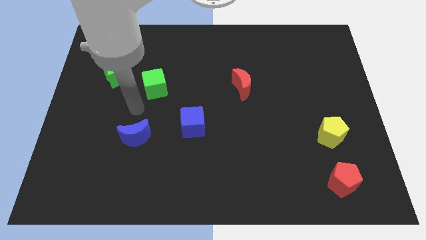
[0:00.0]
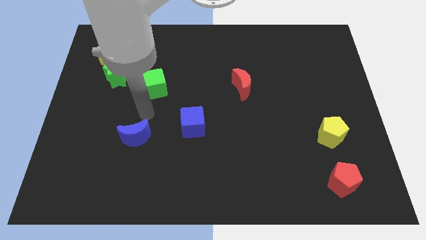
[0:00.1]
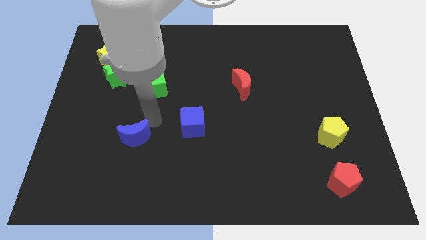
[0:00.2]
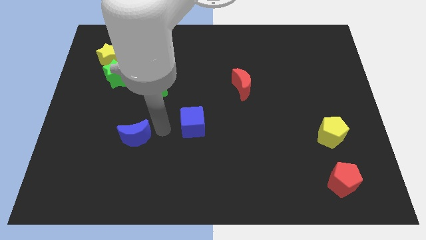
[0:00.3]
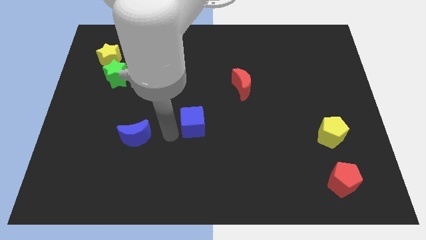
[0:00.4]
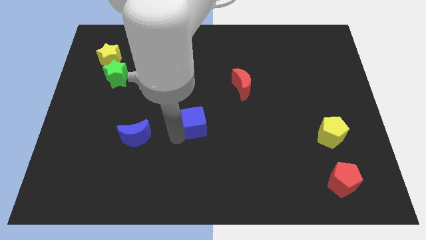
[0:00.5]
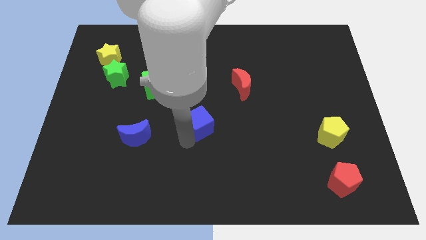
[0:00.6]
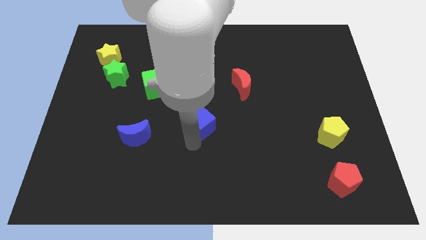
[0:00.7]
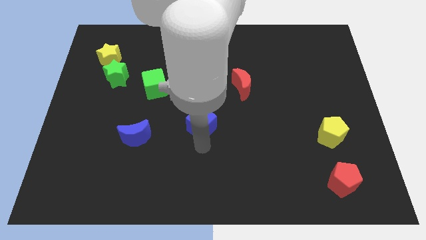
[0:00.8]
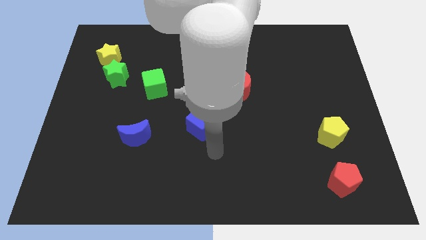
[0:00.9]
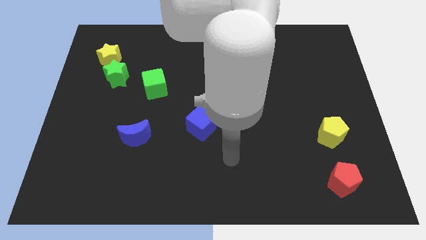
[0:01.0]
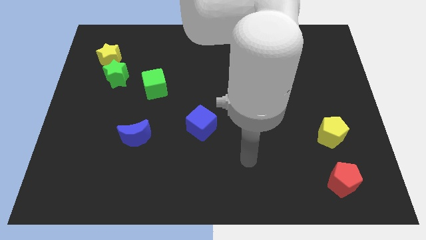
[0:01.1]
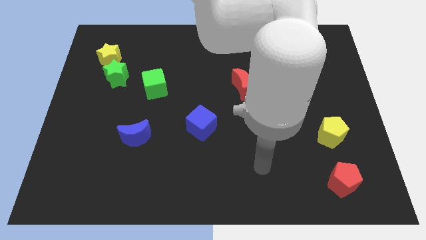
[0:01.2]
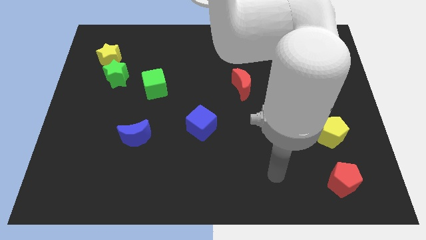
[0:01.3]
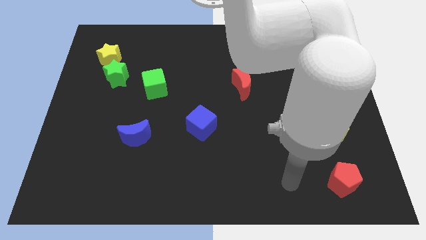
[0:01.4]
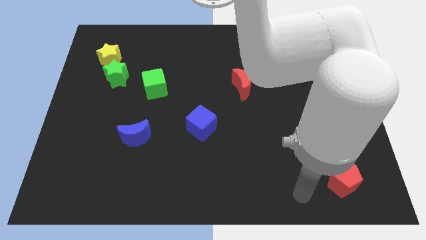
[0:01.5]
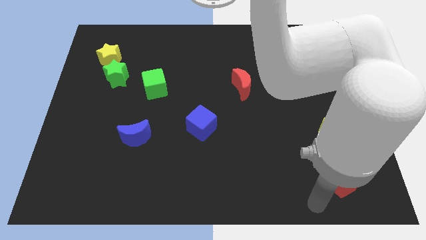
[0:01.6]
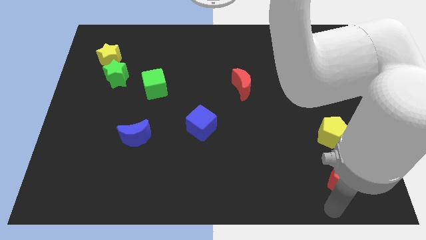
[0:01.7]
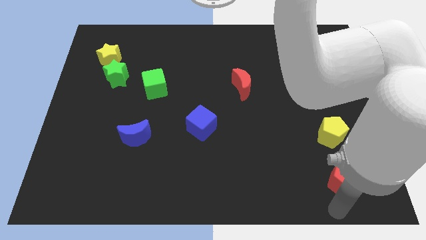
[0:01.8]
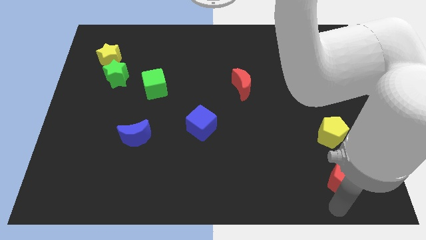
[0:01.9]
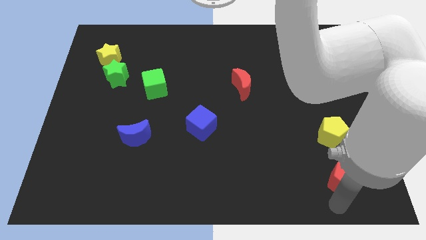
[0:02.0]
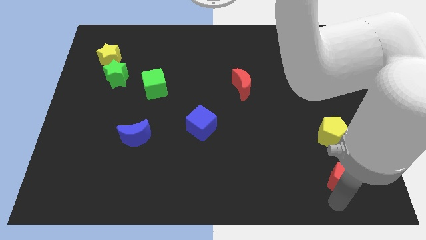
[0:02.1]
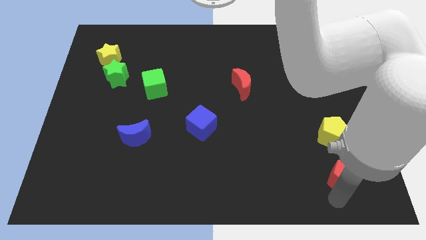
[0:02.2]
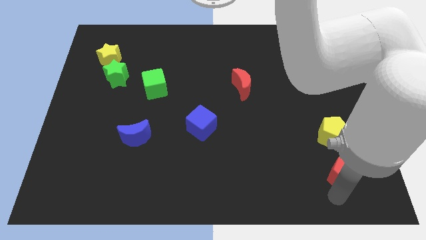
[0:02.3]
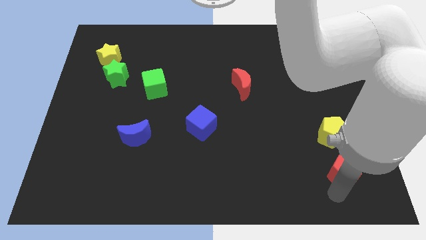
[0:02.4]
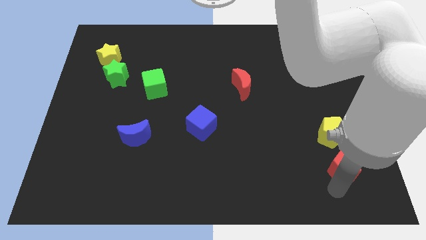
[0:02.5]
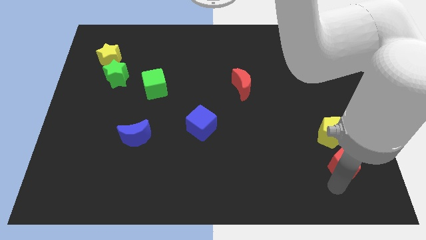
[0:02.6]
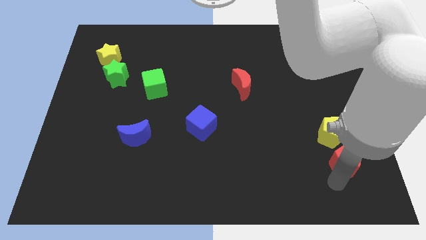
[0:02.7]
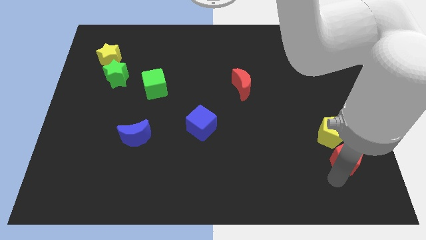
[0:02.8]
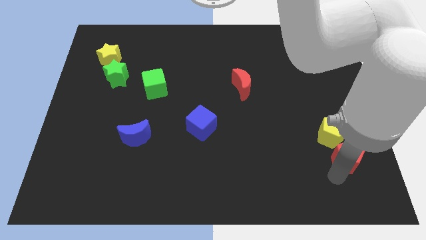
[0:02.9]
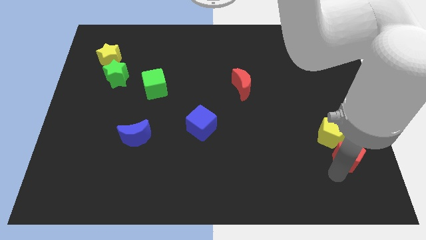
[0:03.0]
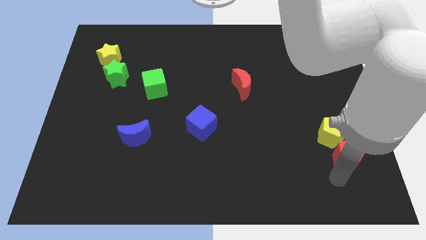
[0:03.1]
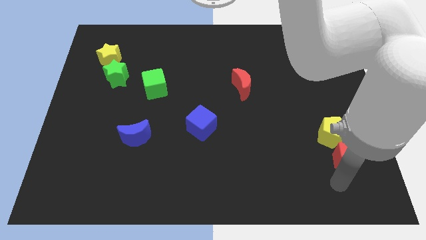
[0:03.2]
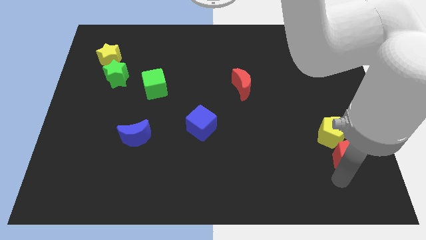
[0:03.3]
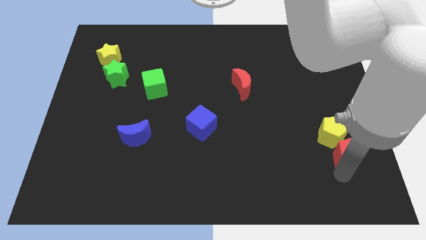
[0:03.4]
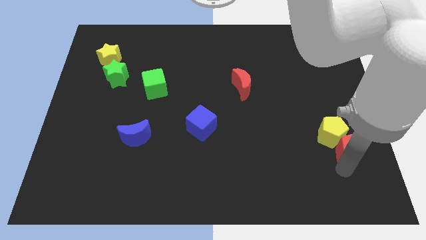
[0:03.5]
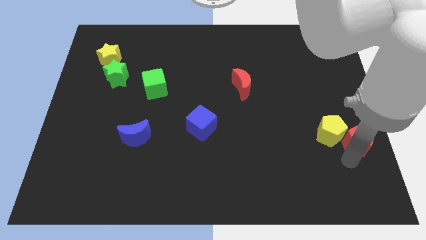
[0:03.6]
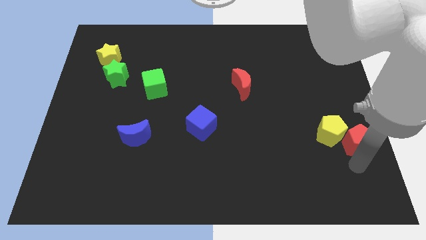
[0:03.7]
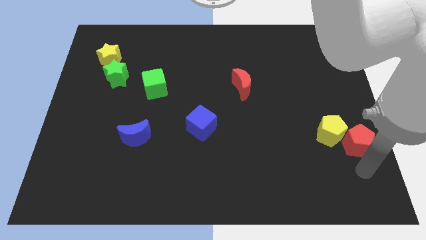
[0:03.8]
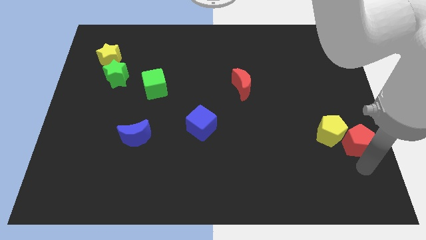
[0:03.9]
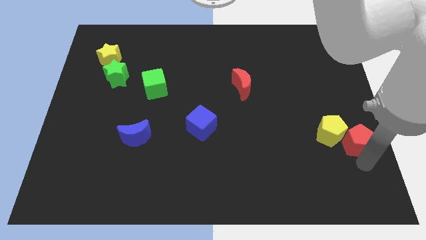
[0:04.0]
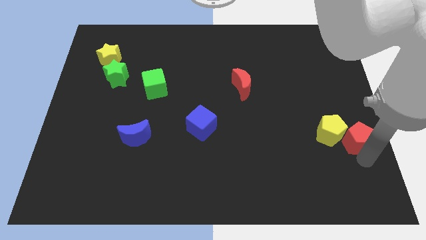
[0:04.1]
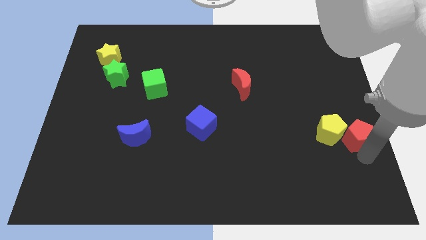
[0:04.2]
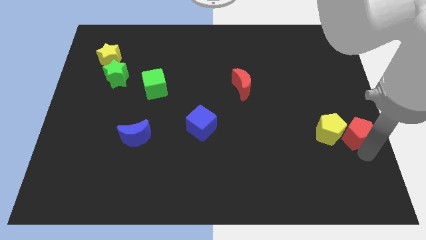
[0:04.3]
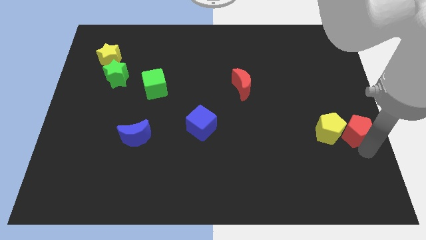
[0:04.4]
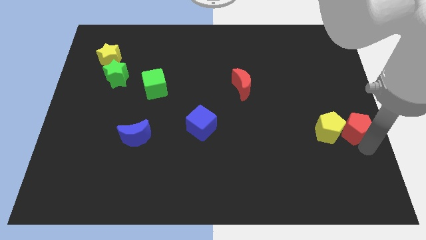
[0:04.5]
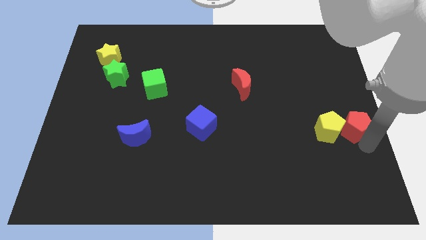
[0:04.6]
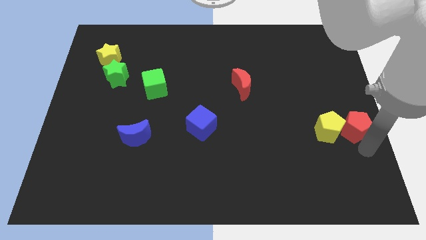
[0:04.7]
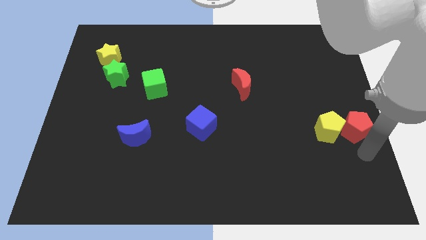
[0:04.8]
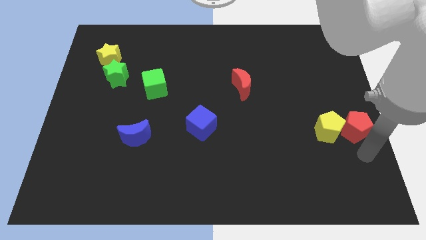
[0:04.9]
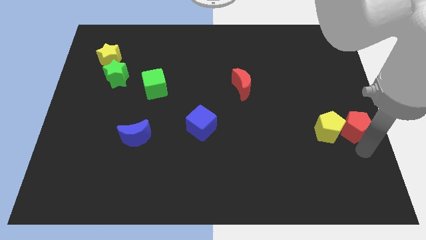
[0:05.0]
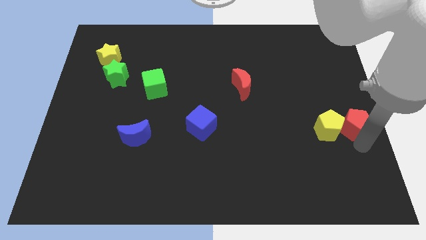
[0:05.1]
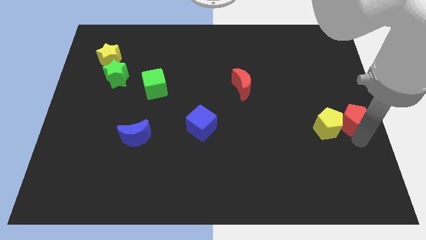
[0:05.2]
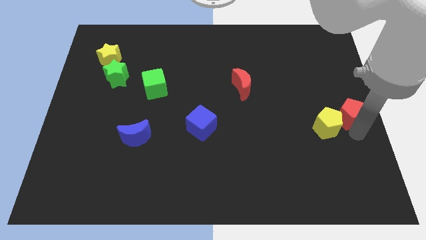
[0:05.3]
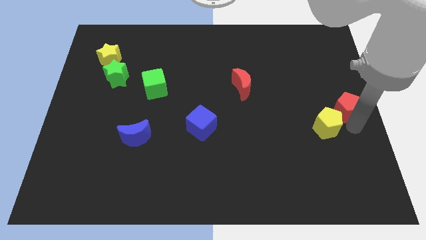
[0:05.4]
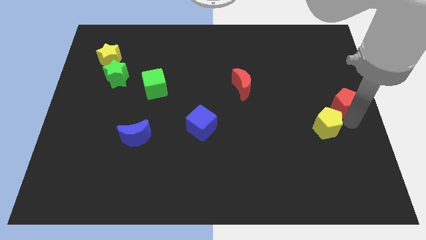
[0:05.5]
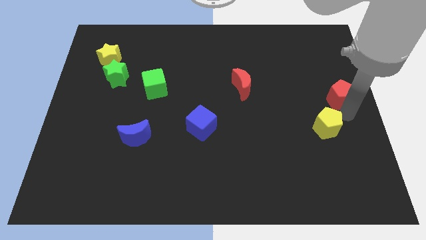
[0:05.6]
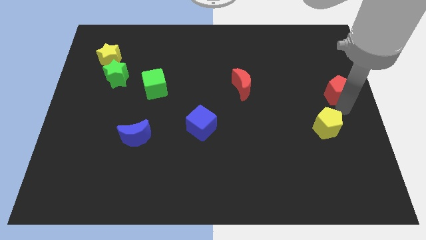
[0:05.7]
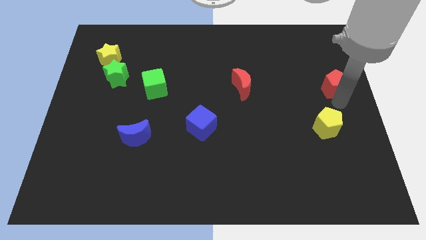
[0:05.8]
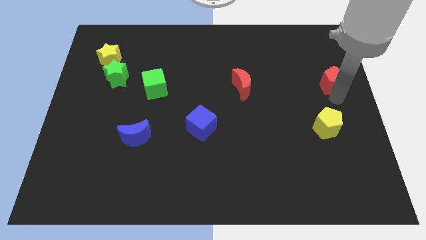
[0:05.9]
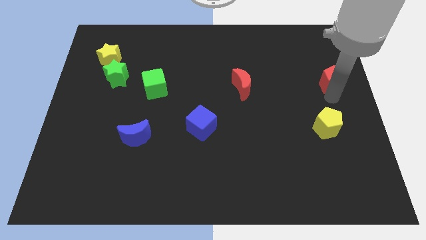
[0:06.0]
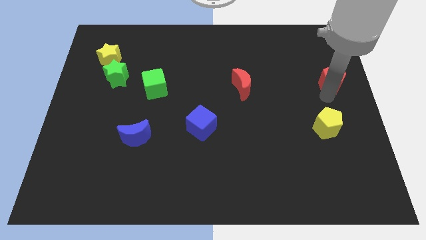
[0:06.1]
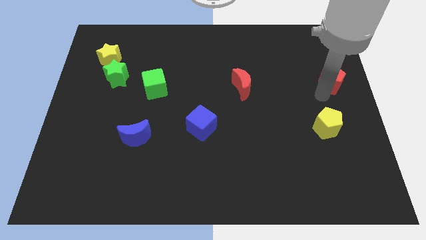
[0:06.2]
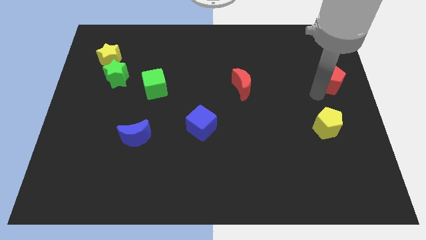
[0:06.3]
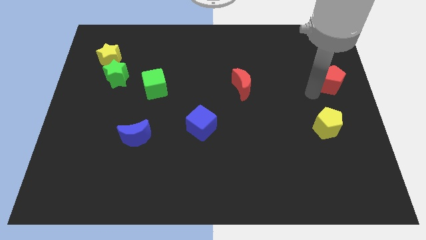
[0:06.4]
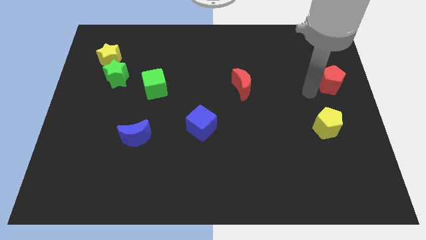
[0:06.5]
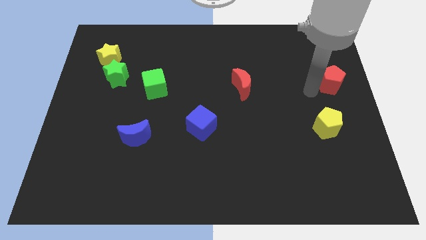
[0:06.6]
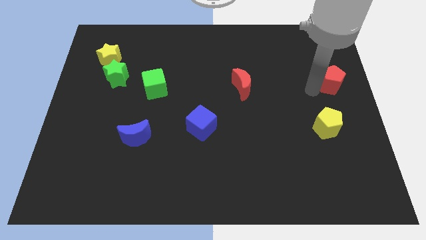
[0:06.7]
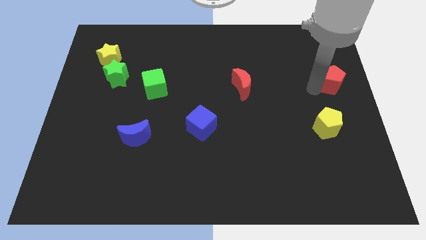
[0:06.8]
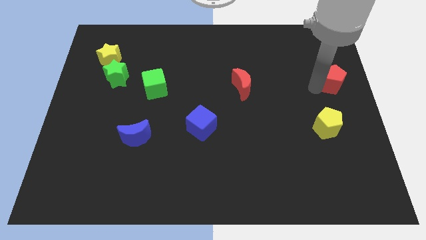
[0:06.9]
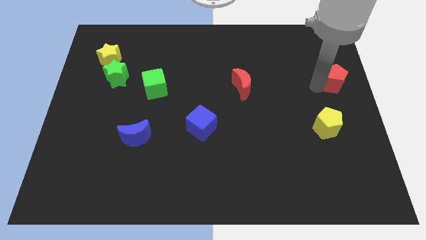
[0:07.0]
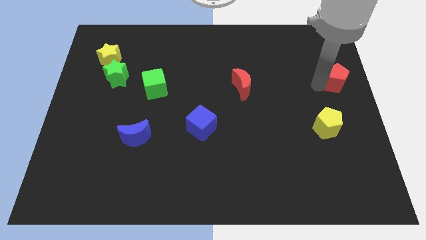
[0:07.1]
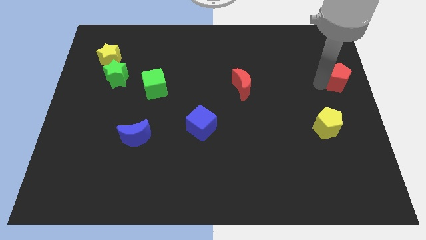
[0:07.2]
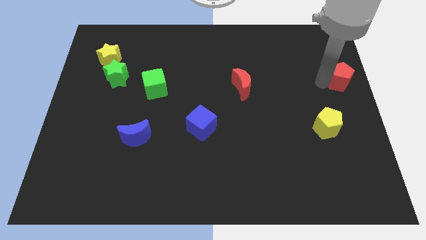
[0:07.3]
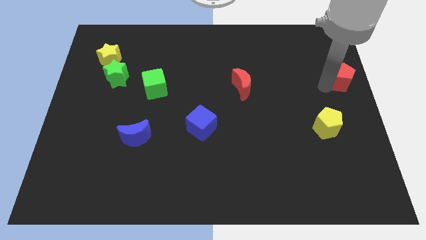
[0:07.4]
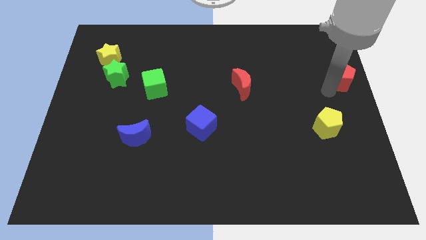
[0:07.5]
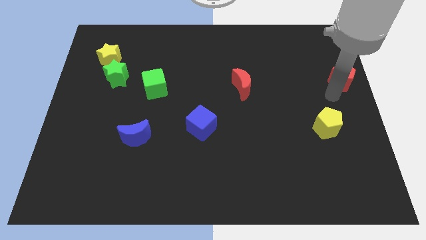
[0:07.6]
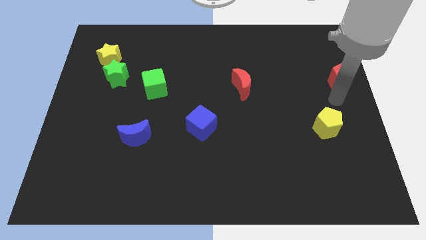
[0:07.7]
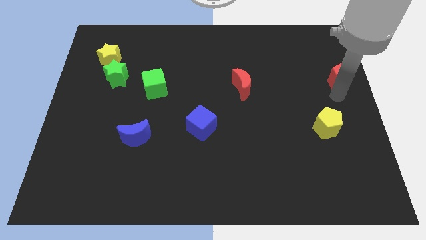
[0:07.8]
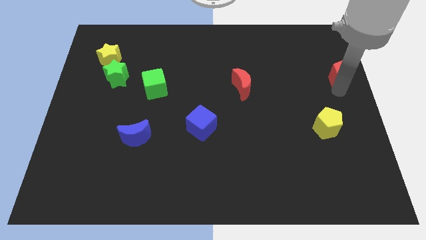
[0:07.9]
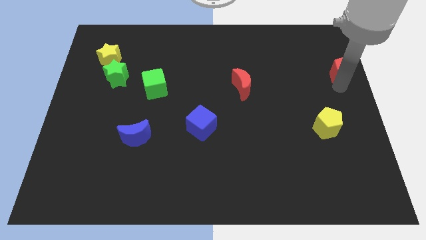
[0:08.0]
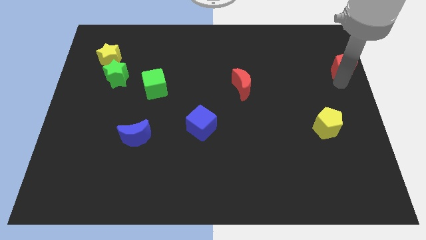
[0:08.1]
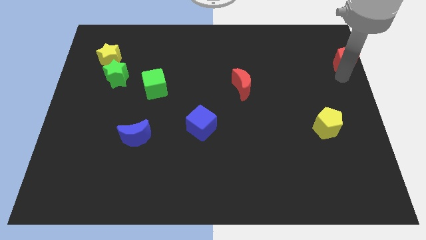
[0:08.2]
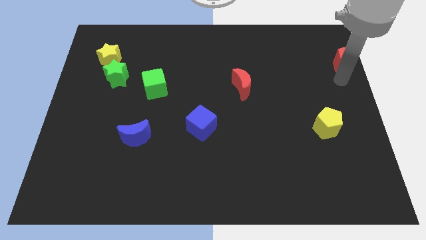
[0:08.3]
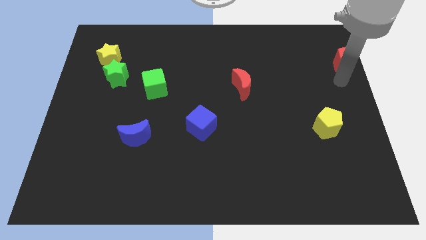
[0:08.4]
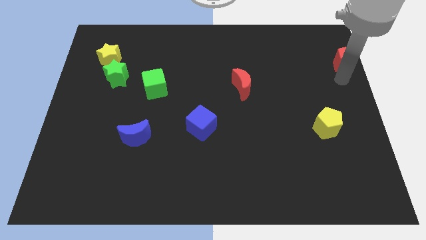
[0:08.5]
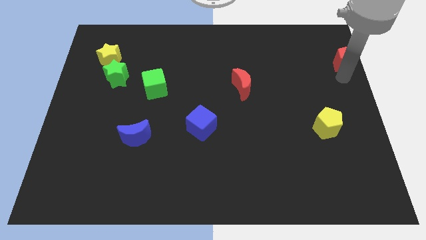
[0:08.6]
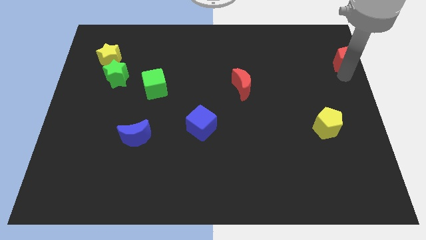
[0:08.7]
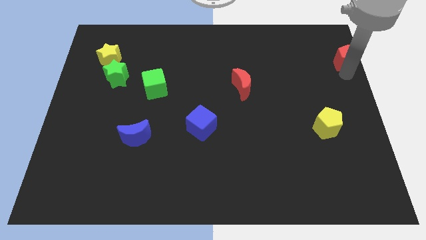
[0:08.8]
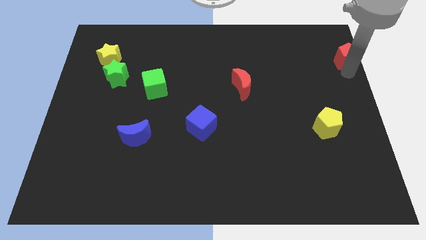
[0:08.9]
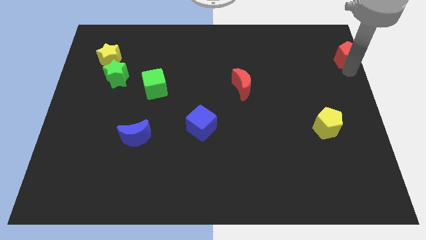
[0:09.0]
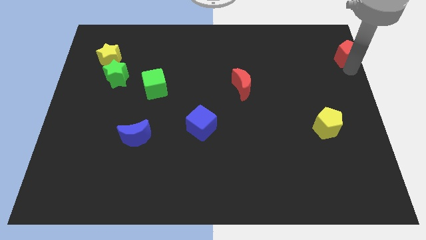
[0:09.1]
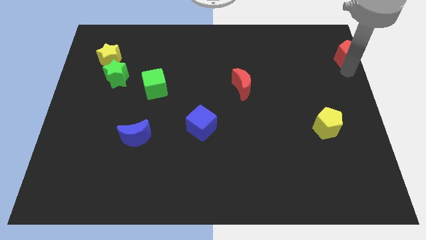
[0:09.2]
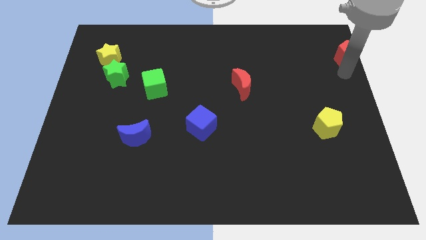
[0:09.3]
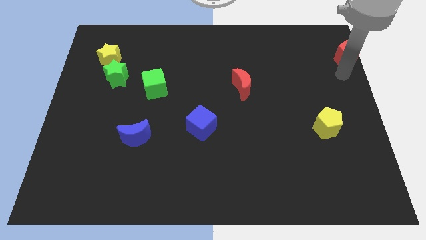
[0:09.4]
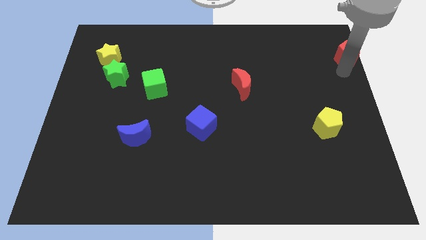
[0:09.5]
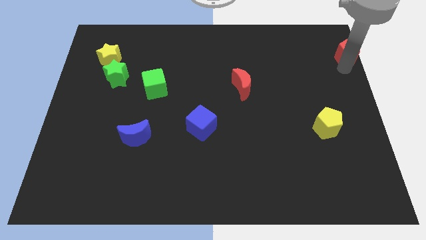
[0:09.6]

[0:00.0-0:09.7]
slide the red pentagon to the upper right corner
